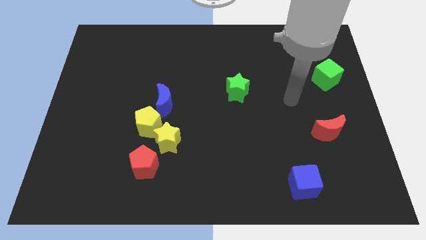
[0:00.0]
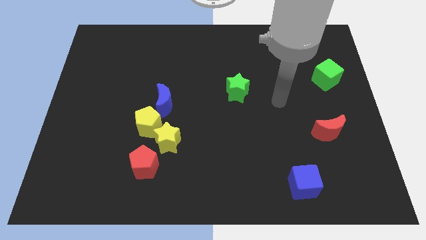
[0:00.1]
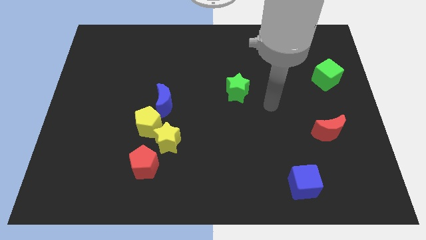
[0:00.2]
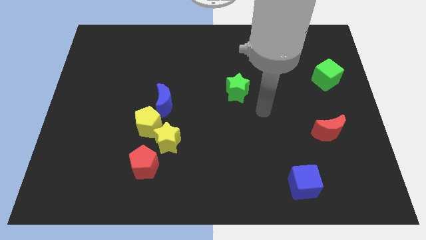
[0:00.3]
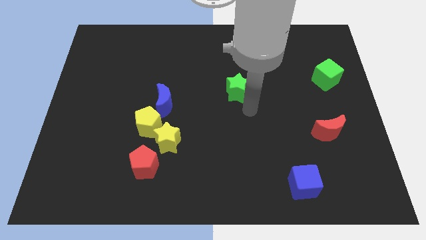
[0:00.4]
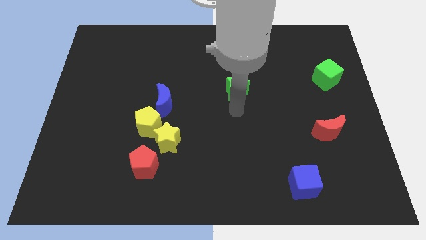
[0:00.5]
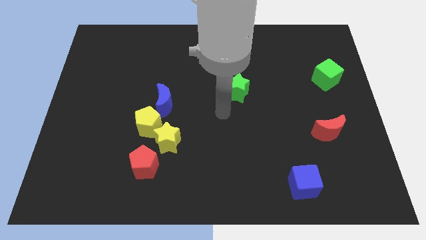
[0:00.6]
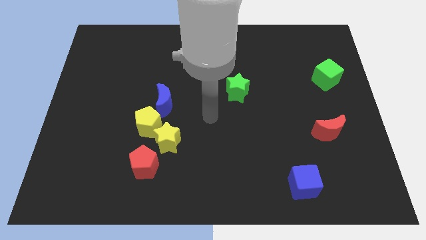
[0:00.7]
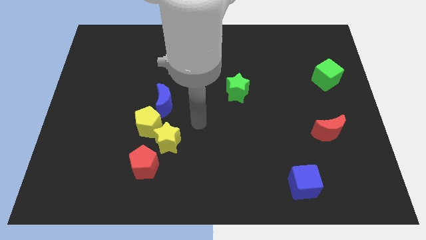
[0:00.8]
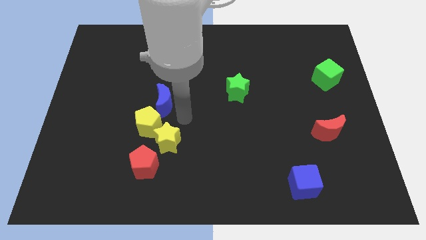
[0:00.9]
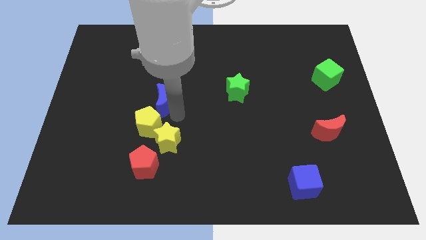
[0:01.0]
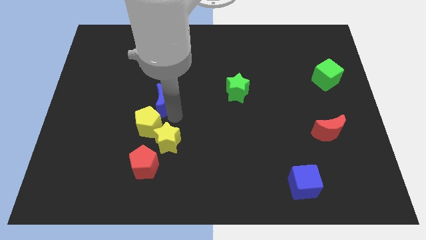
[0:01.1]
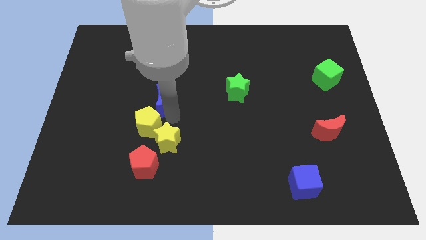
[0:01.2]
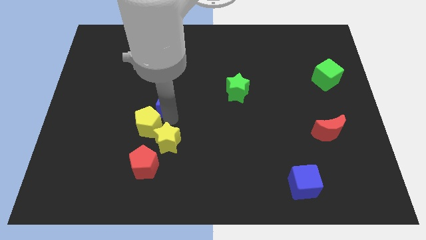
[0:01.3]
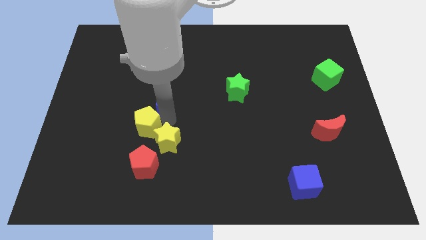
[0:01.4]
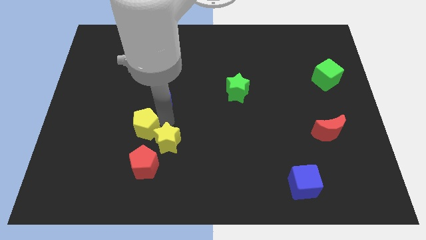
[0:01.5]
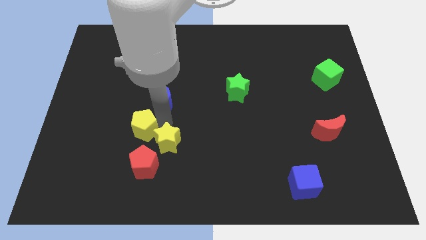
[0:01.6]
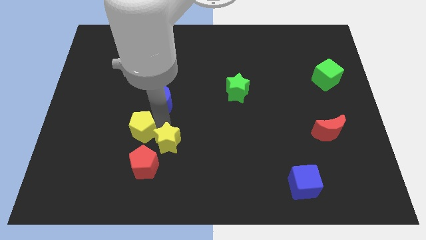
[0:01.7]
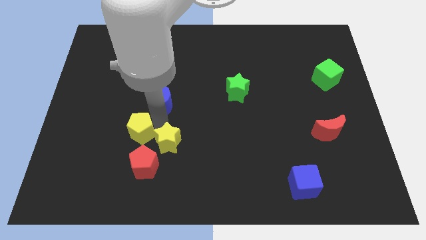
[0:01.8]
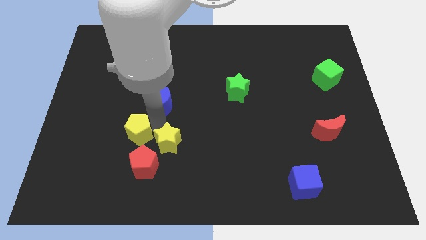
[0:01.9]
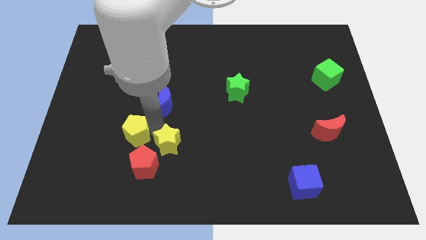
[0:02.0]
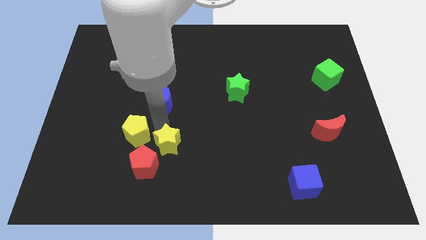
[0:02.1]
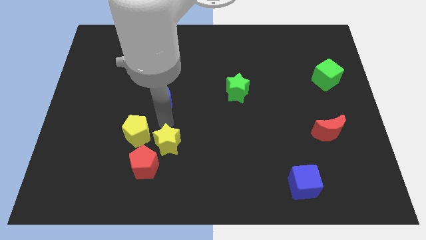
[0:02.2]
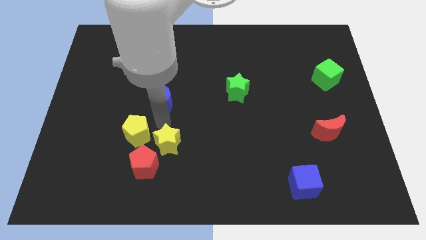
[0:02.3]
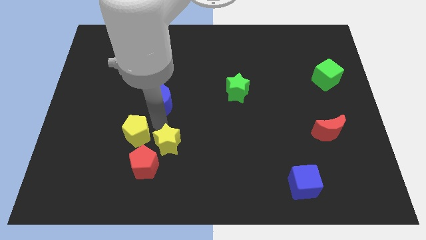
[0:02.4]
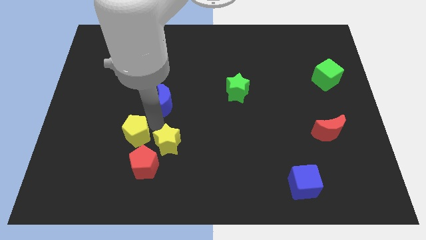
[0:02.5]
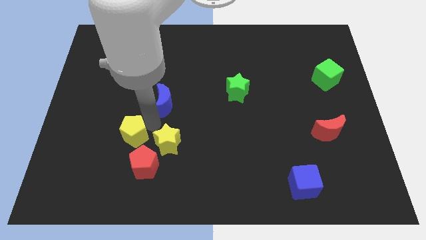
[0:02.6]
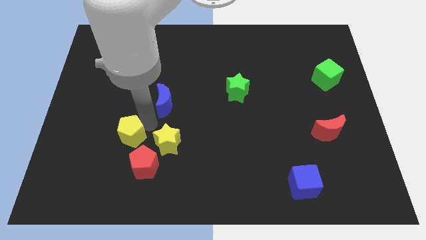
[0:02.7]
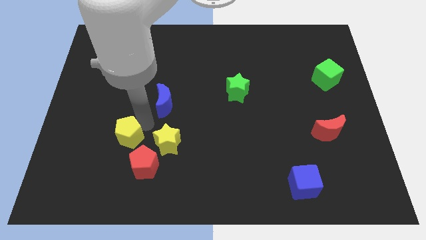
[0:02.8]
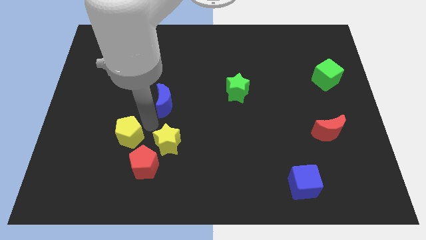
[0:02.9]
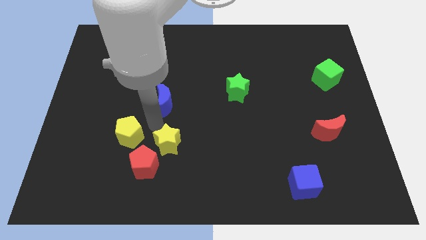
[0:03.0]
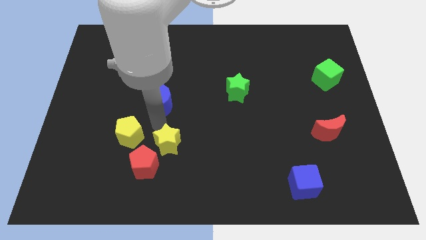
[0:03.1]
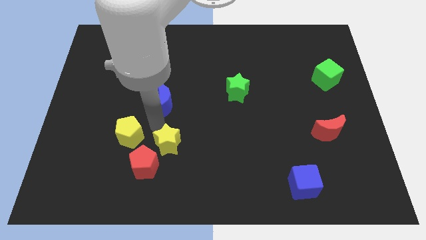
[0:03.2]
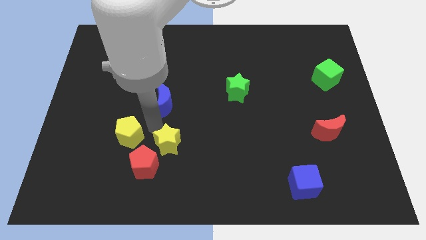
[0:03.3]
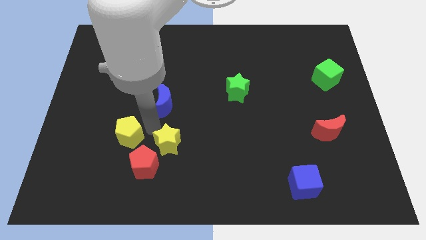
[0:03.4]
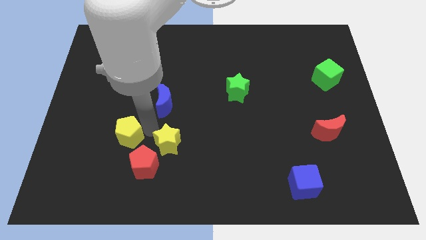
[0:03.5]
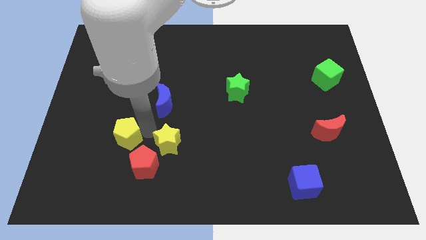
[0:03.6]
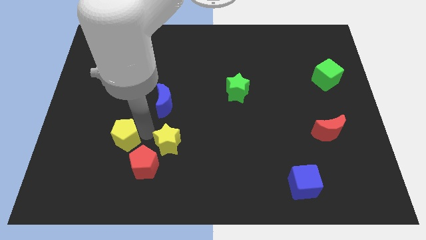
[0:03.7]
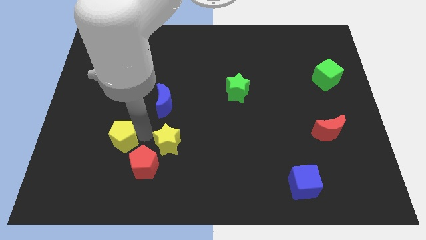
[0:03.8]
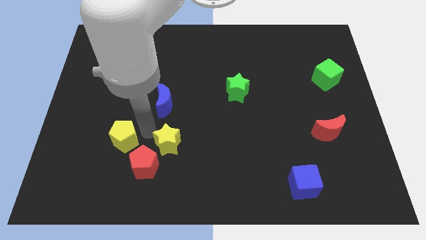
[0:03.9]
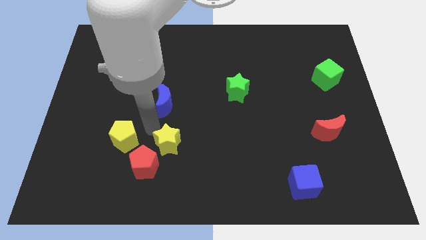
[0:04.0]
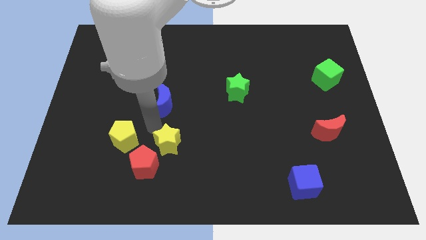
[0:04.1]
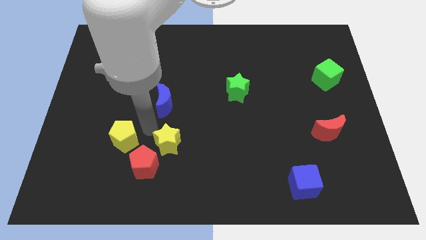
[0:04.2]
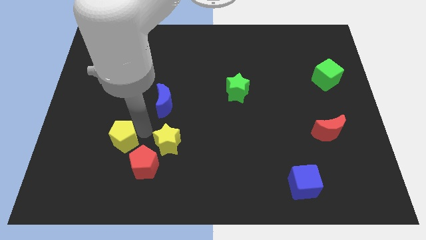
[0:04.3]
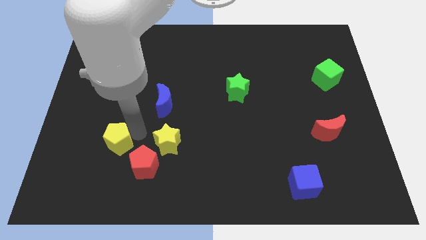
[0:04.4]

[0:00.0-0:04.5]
separate the yellow pentagon from the yellow star and blue moon

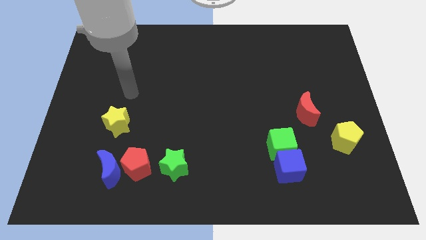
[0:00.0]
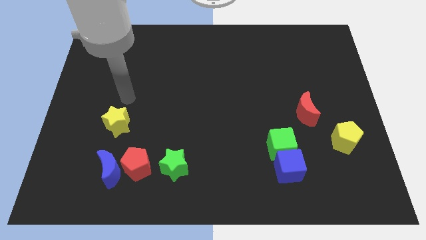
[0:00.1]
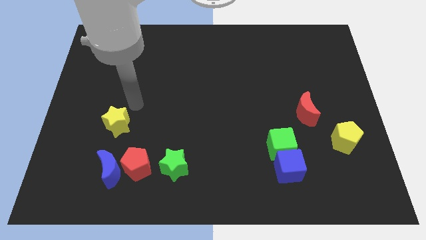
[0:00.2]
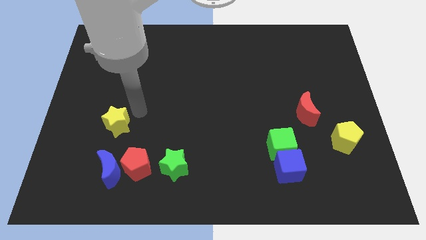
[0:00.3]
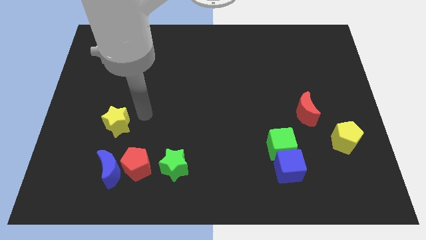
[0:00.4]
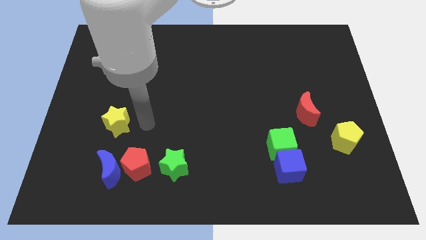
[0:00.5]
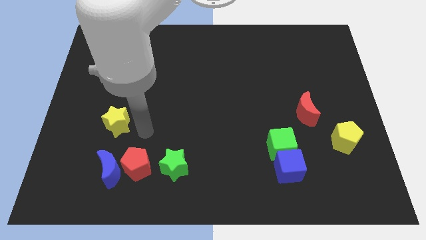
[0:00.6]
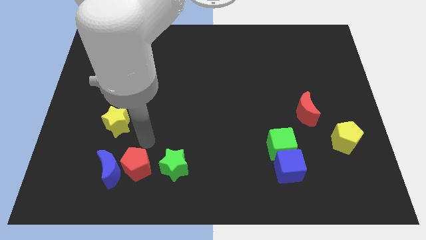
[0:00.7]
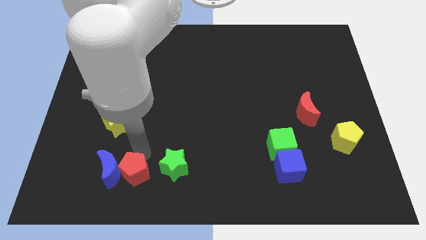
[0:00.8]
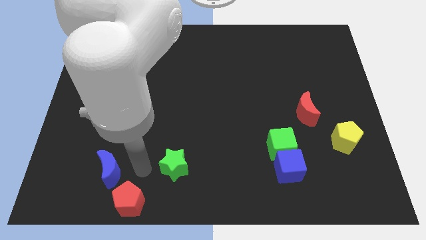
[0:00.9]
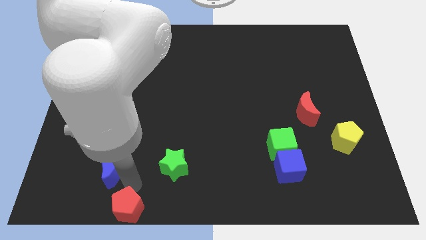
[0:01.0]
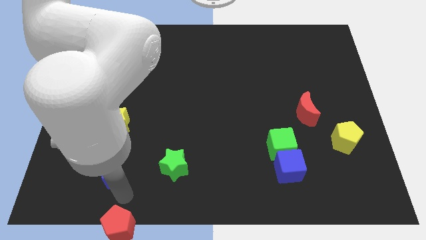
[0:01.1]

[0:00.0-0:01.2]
pull the blue moon apart from the red pentagon

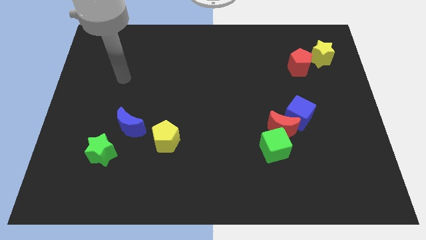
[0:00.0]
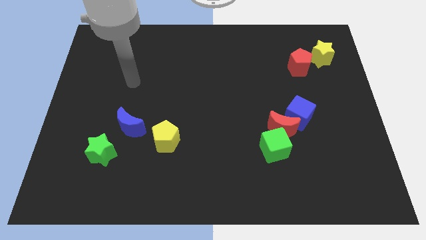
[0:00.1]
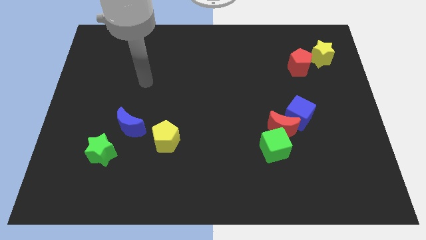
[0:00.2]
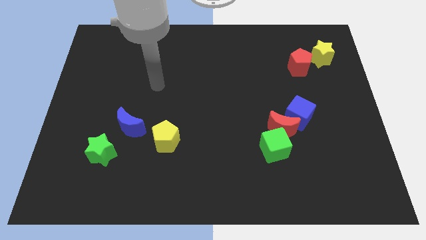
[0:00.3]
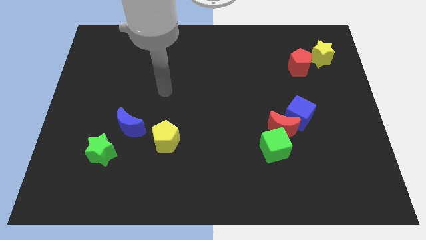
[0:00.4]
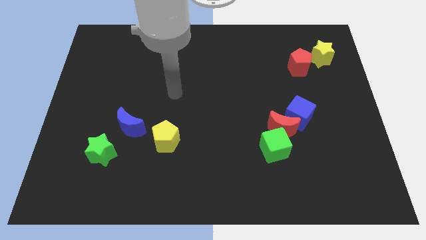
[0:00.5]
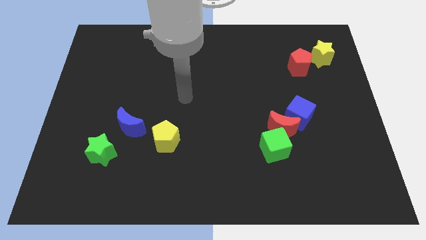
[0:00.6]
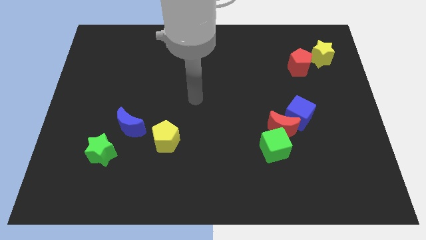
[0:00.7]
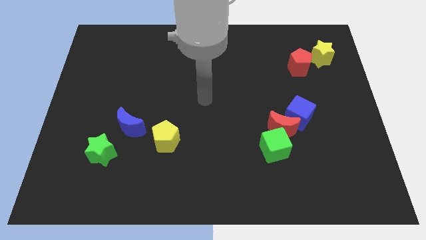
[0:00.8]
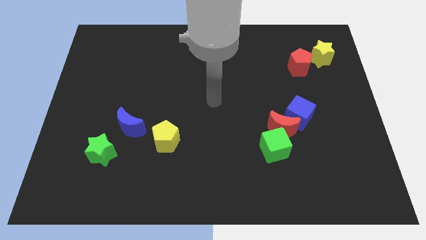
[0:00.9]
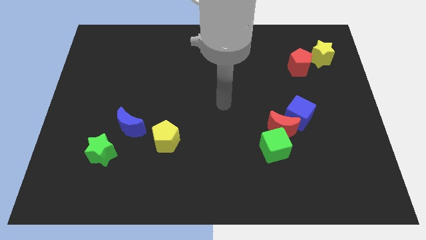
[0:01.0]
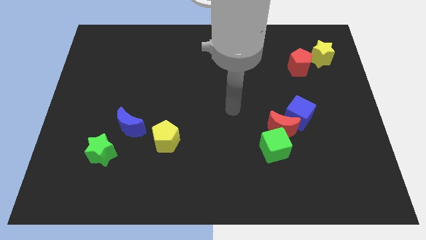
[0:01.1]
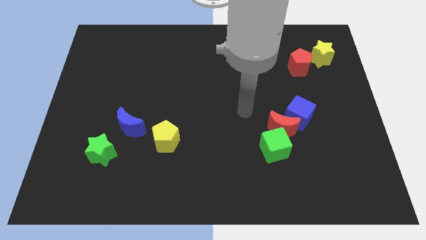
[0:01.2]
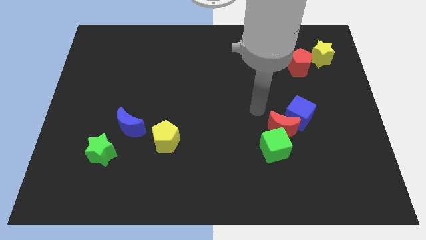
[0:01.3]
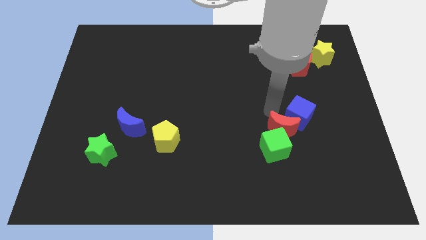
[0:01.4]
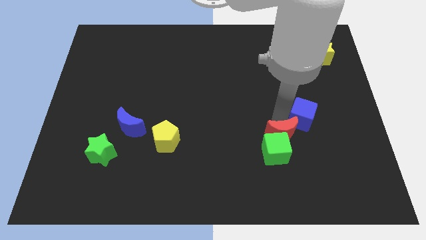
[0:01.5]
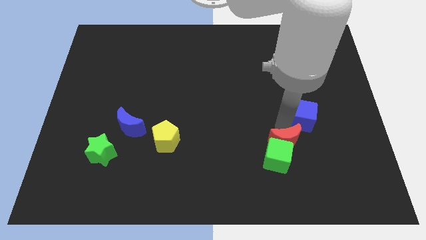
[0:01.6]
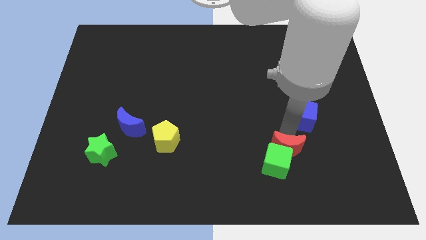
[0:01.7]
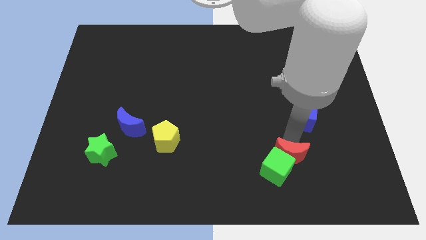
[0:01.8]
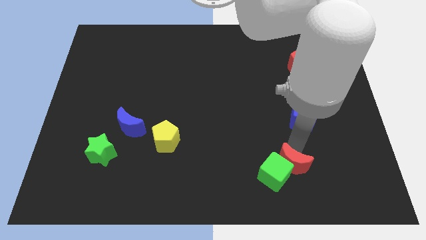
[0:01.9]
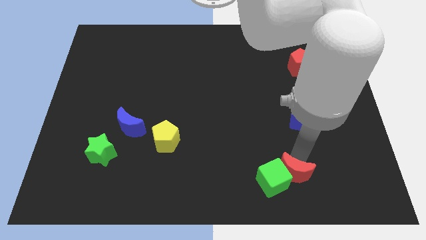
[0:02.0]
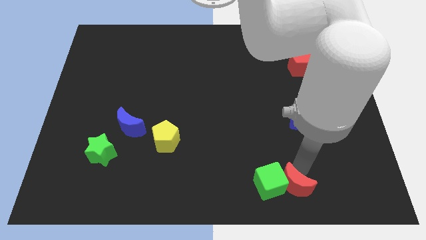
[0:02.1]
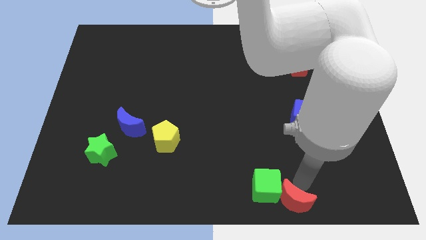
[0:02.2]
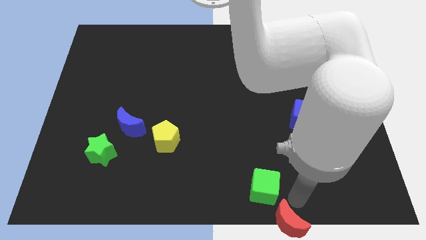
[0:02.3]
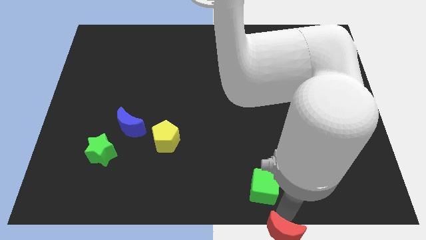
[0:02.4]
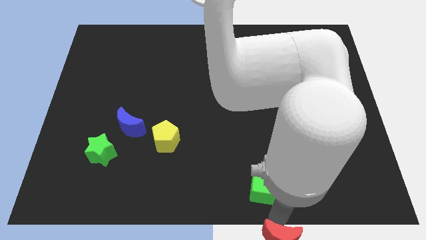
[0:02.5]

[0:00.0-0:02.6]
pull the green cube apart from the red moon

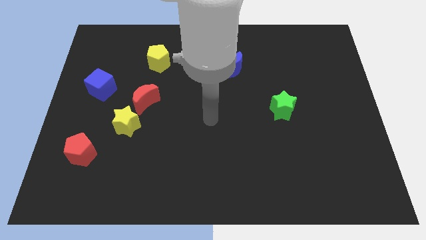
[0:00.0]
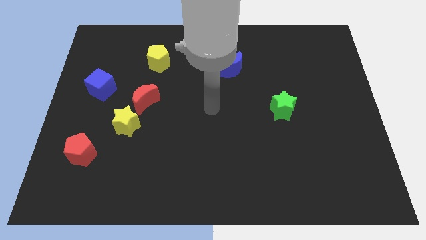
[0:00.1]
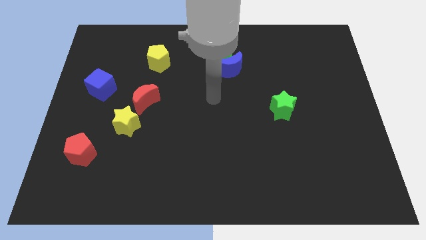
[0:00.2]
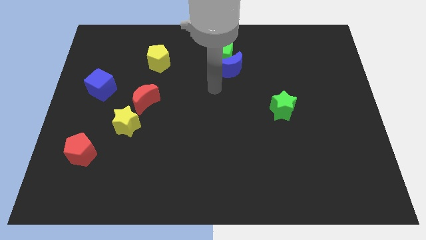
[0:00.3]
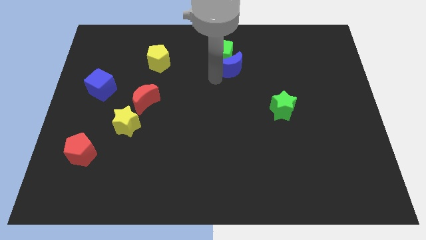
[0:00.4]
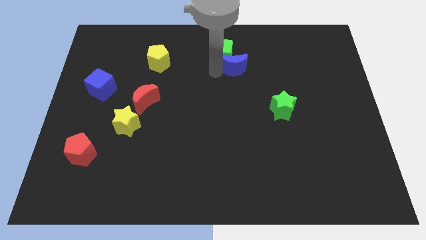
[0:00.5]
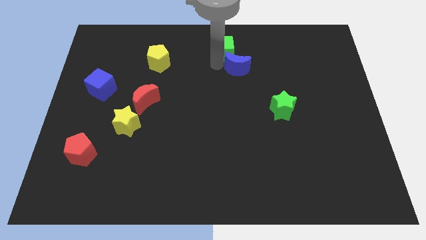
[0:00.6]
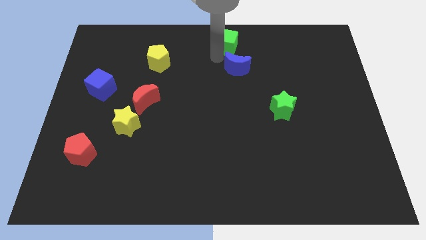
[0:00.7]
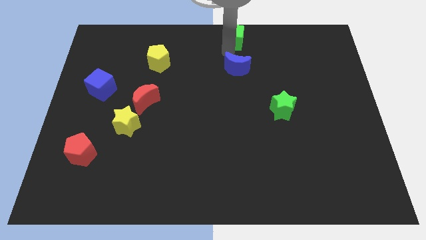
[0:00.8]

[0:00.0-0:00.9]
separate the blue moon from the green cube
